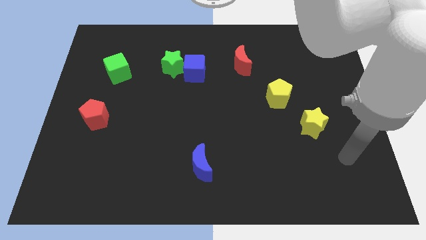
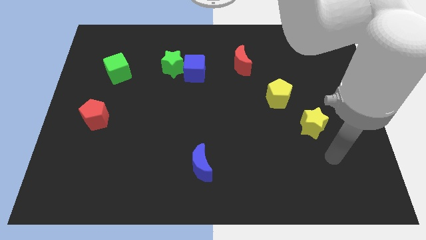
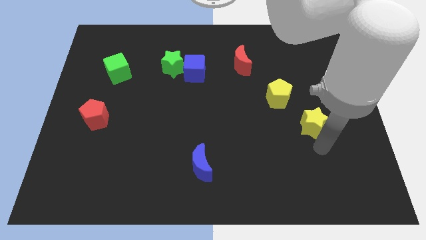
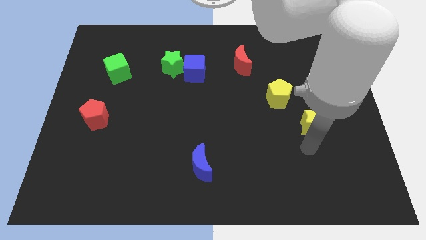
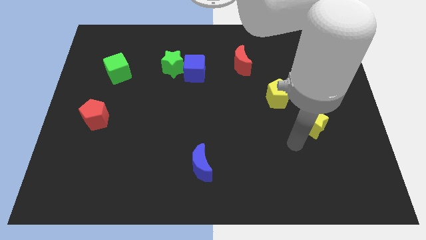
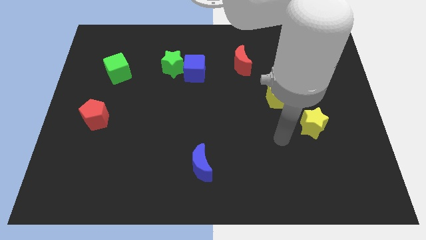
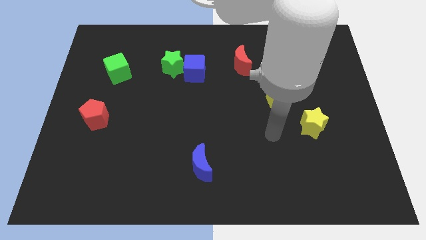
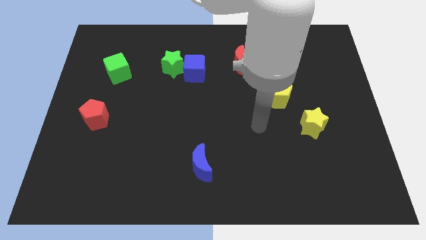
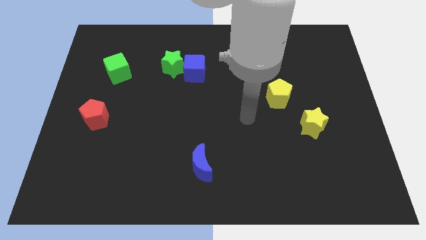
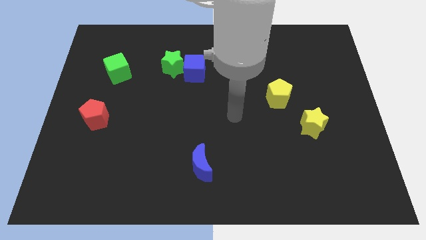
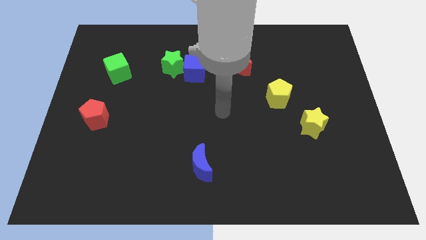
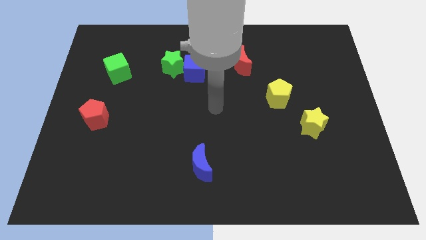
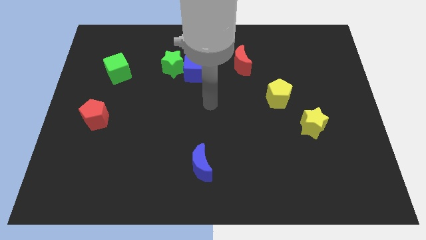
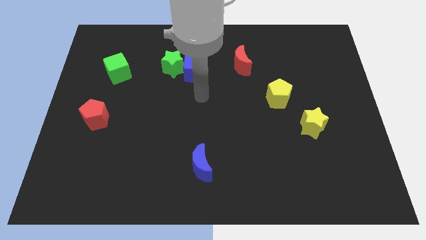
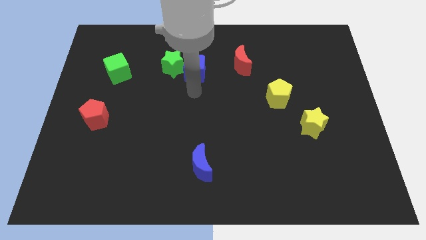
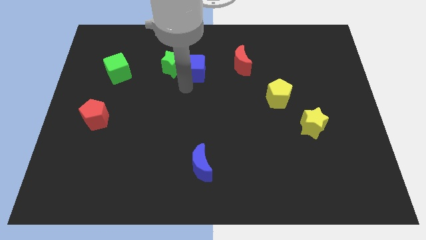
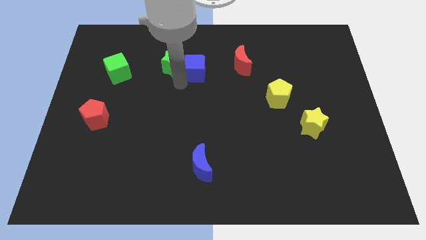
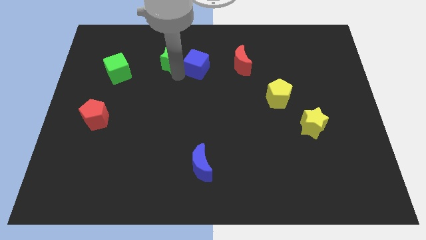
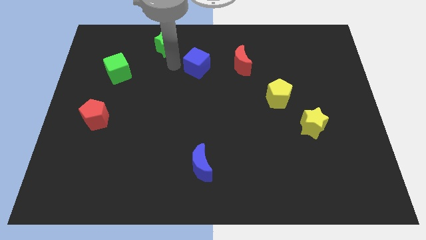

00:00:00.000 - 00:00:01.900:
move the blue cube away from the green star

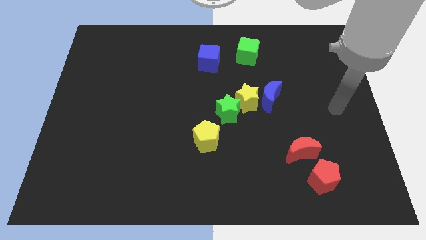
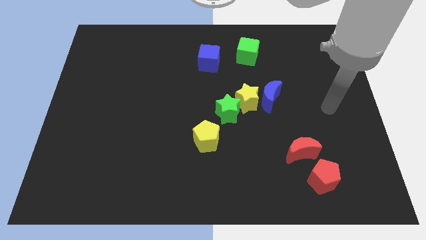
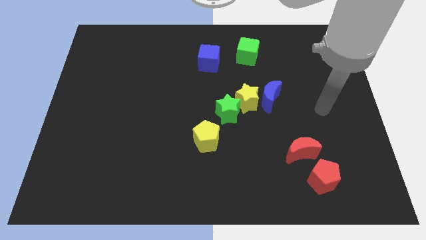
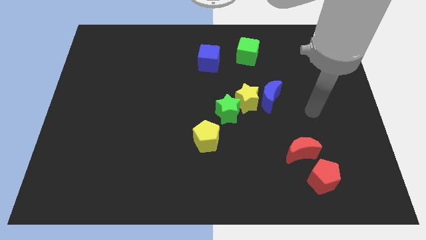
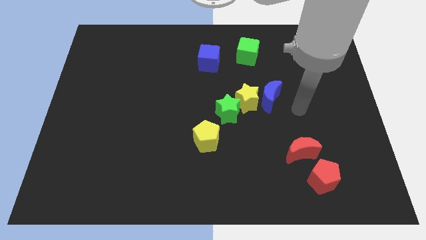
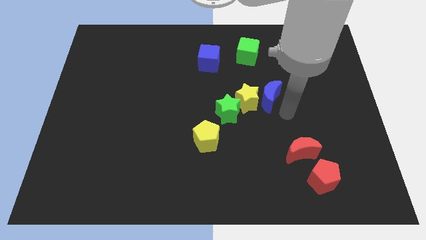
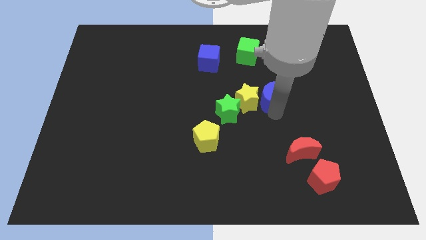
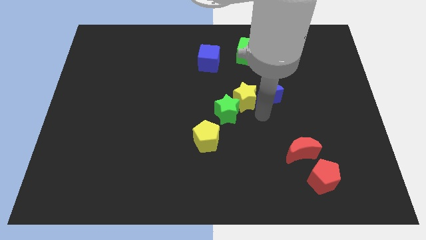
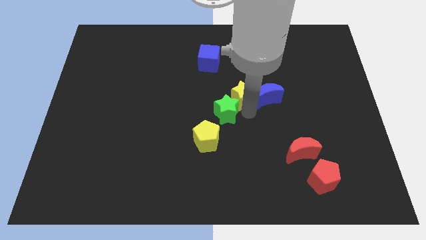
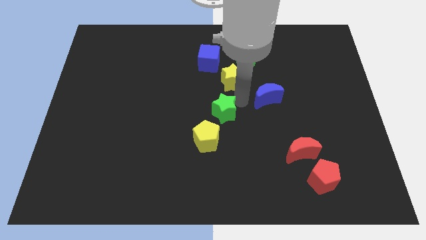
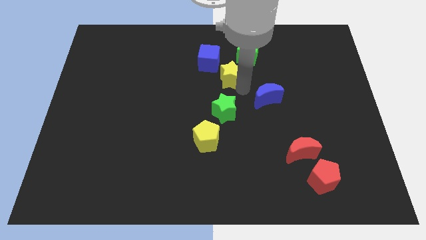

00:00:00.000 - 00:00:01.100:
pull the blue moon apart from the yellow star

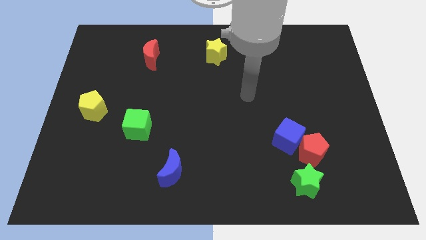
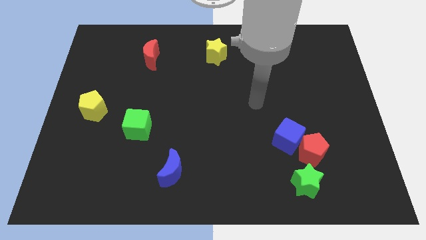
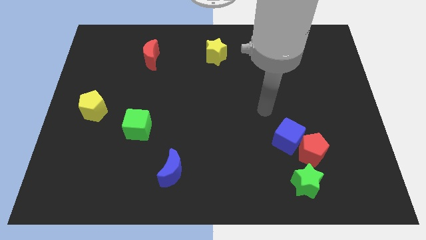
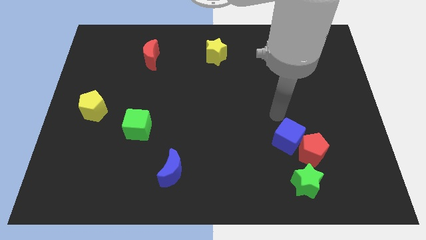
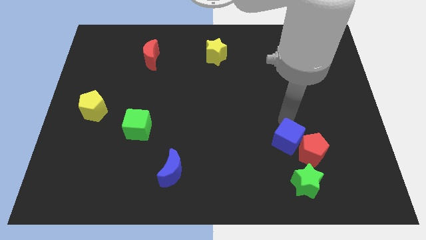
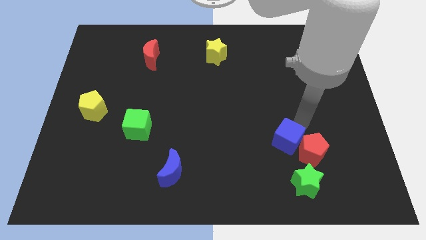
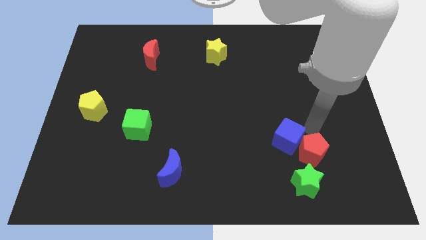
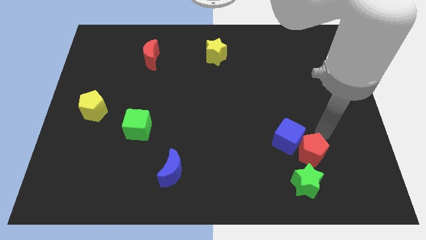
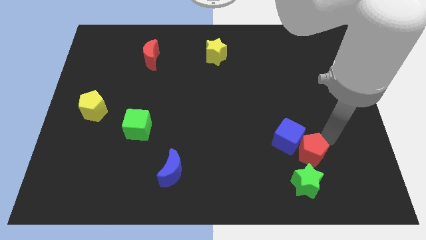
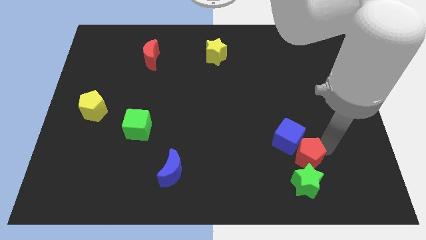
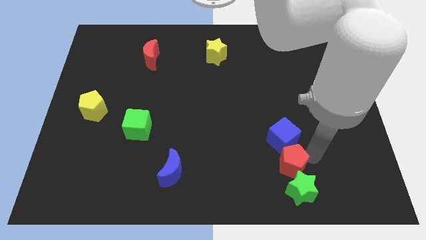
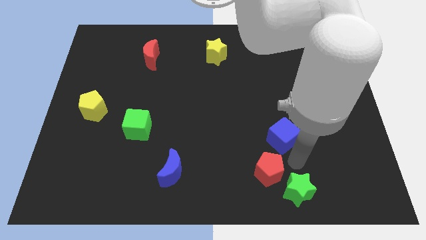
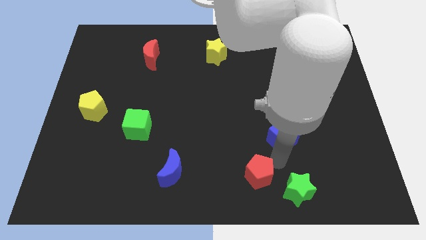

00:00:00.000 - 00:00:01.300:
move the blue cube away from the red pentagon

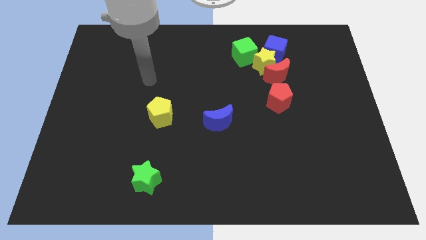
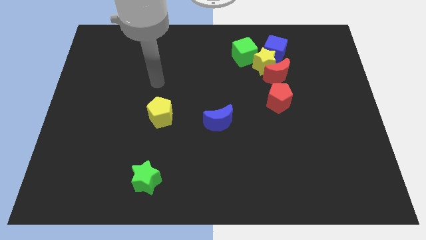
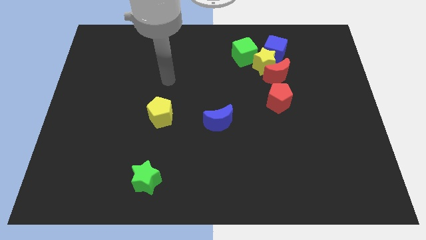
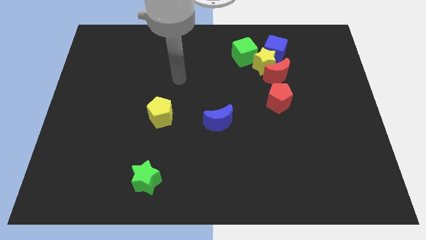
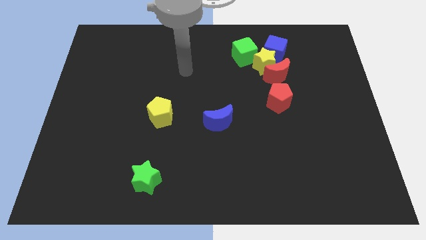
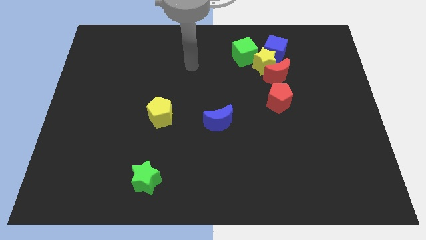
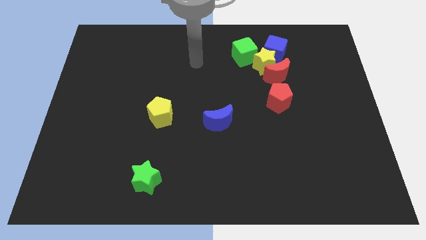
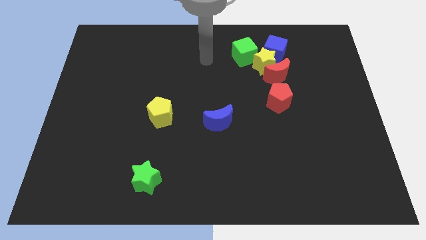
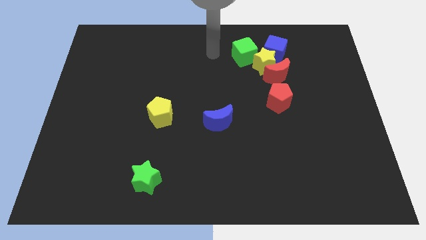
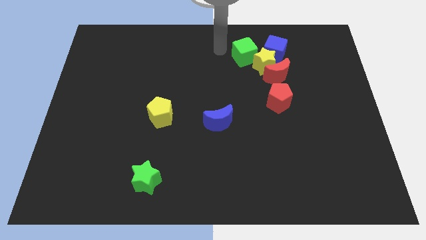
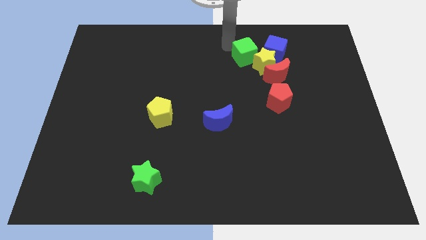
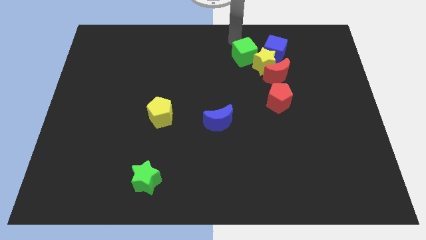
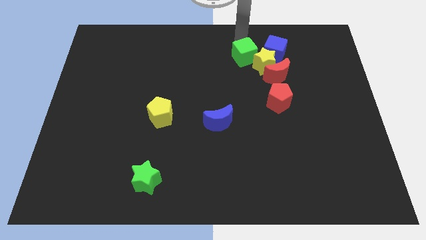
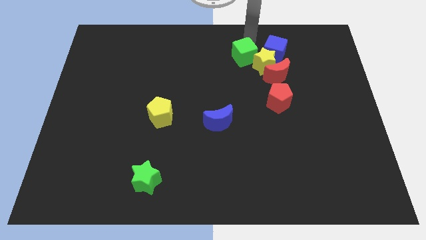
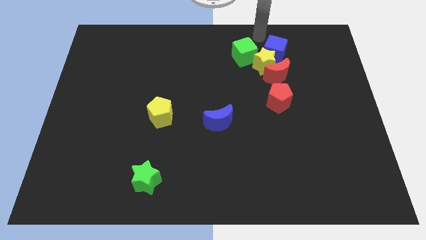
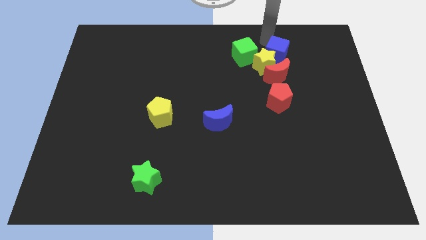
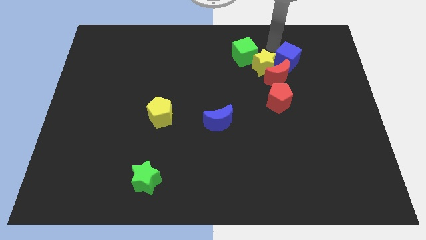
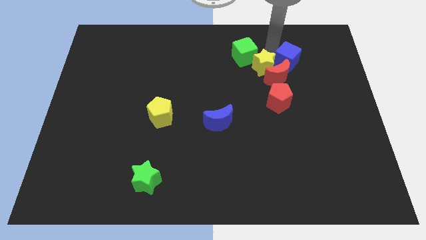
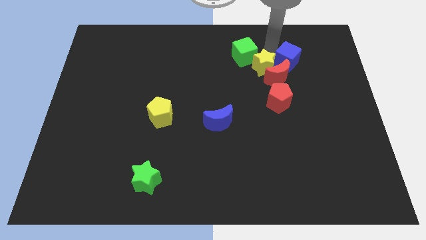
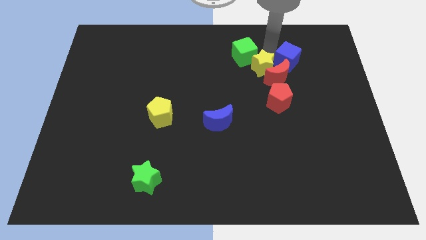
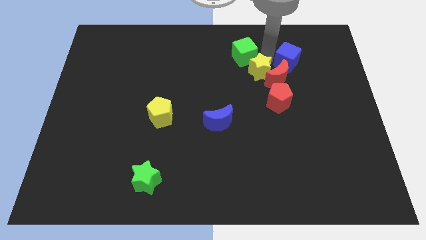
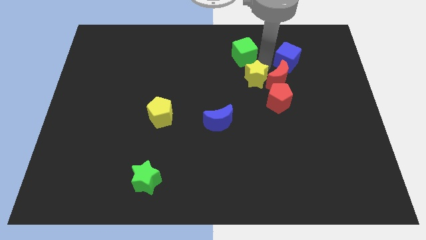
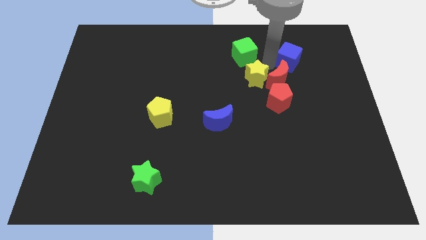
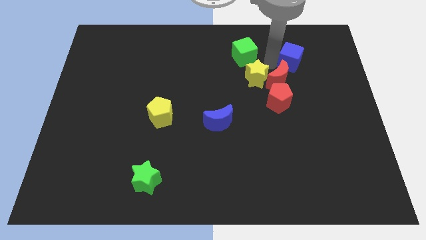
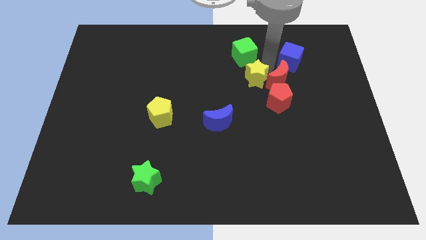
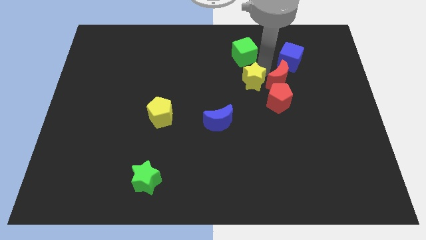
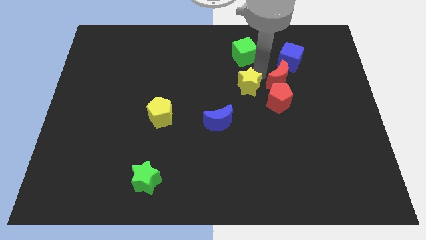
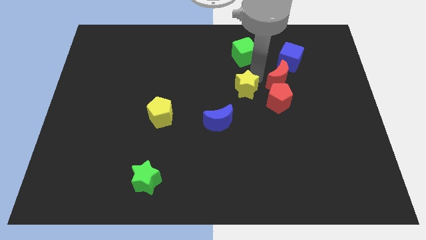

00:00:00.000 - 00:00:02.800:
separate the yellow star from the red moon, blue cube, and green cube

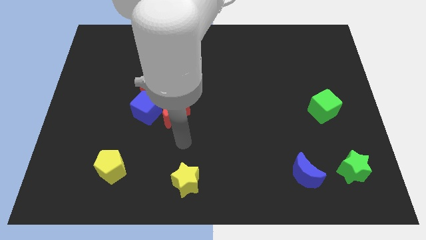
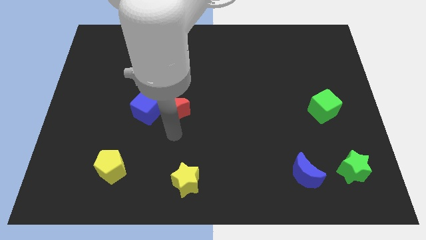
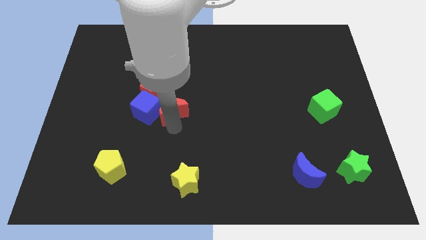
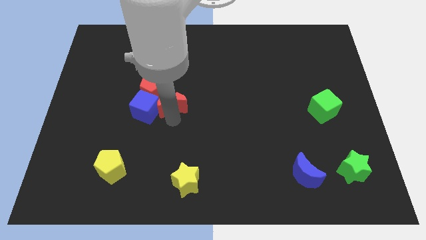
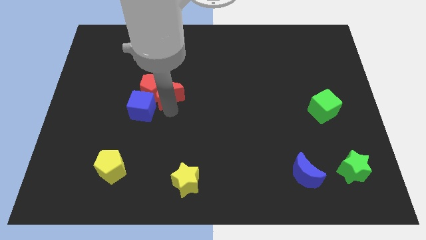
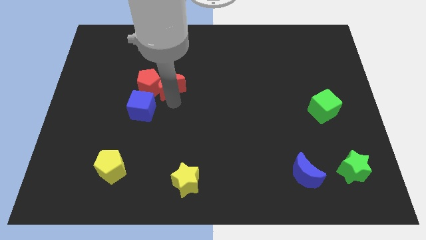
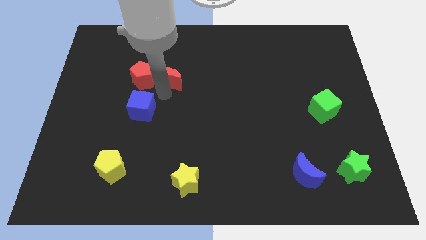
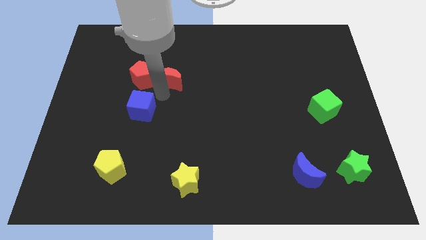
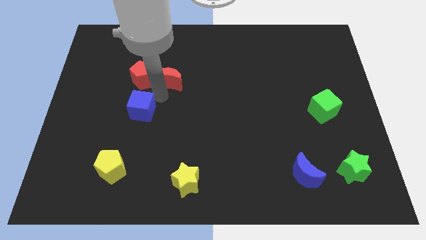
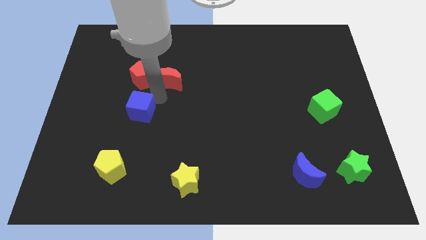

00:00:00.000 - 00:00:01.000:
move the blue cube away from the red pentagon and red moon

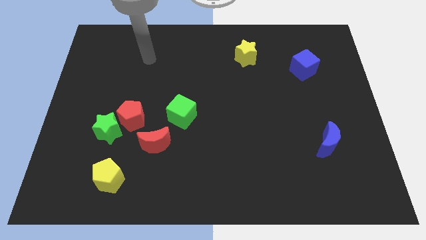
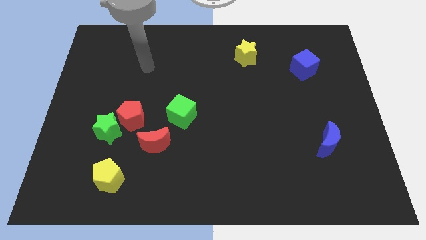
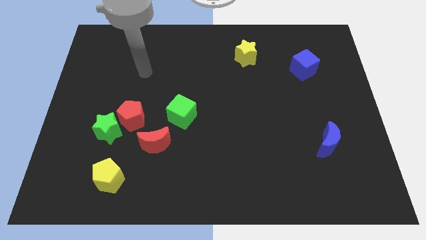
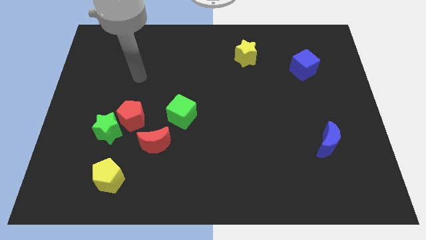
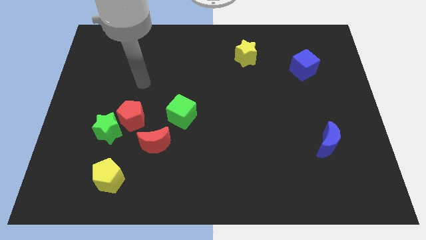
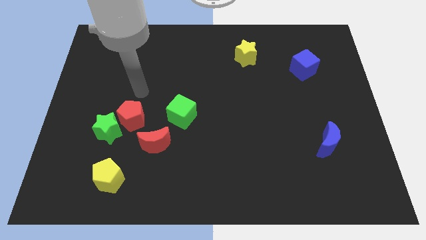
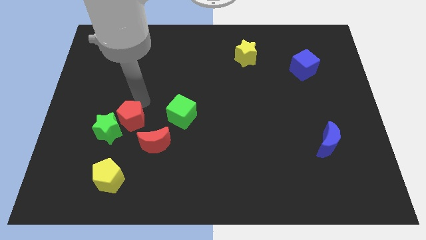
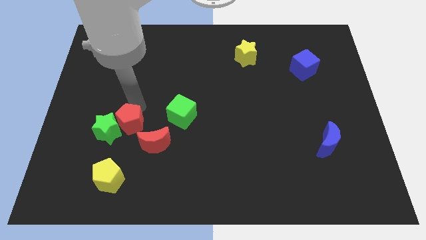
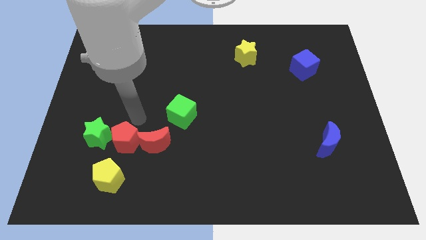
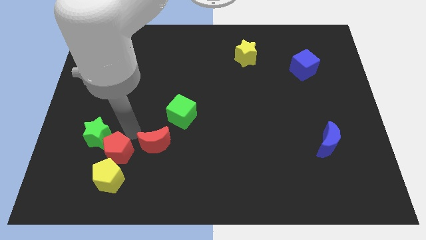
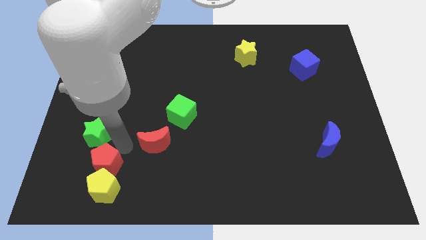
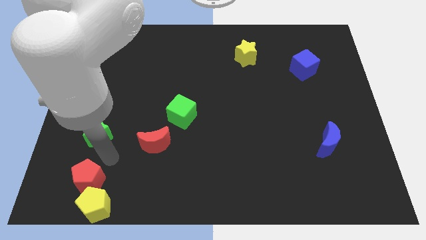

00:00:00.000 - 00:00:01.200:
pull the green star apart from the red pentagon
